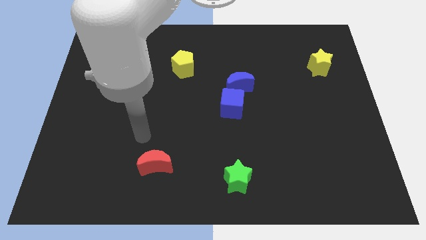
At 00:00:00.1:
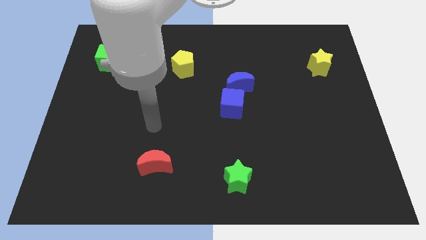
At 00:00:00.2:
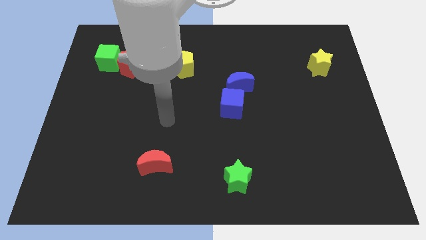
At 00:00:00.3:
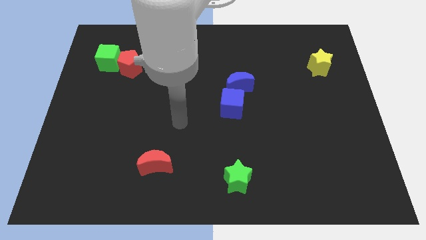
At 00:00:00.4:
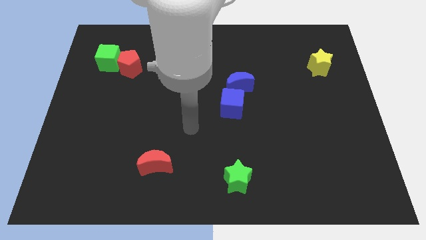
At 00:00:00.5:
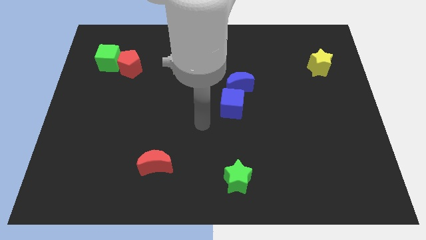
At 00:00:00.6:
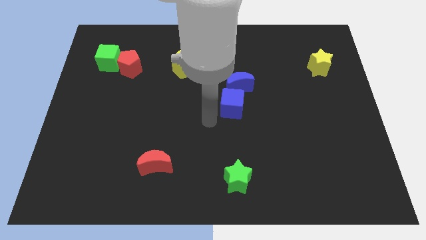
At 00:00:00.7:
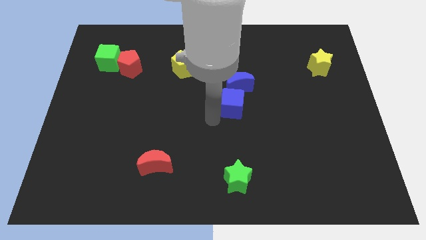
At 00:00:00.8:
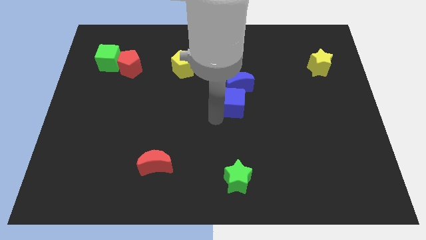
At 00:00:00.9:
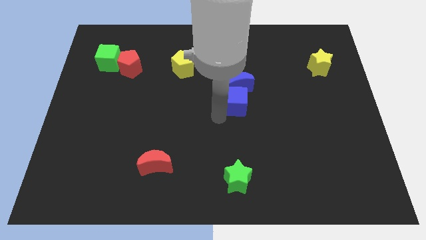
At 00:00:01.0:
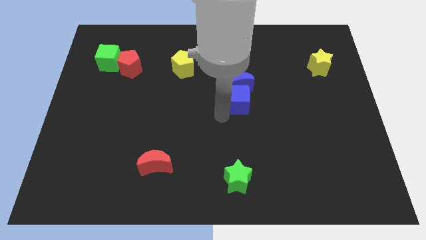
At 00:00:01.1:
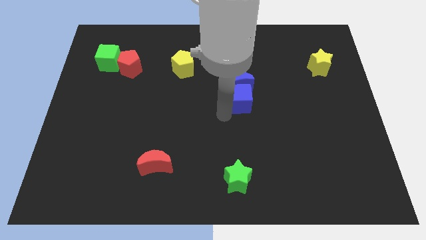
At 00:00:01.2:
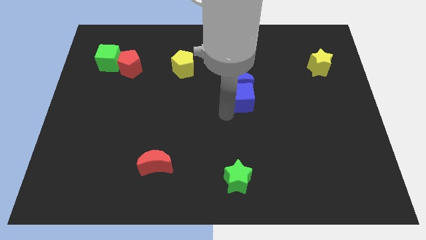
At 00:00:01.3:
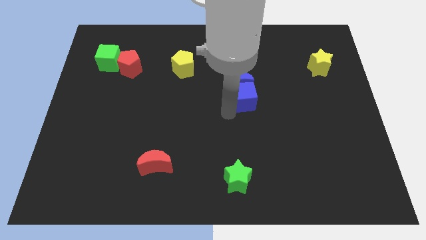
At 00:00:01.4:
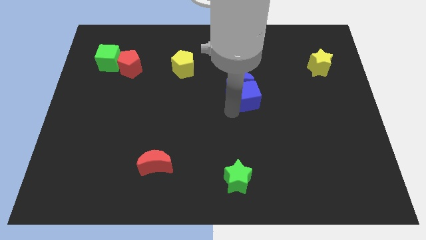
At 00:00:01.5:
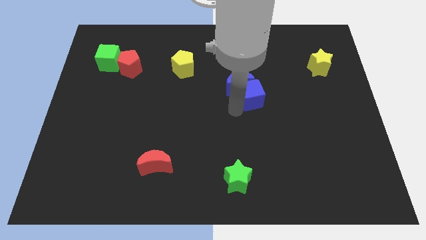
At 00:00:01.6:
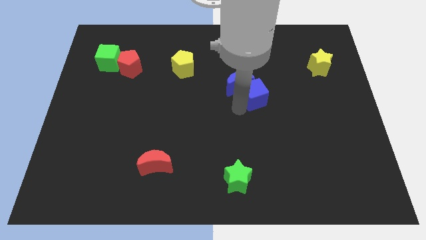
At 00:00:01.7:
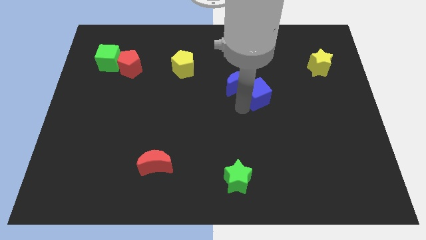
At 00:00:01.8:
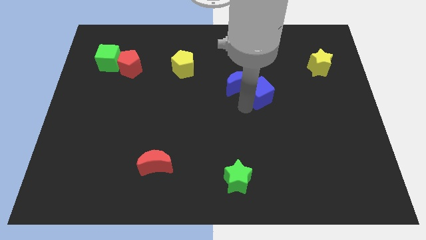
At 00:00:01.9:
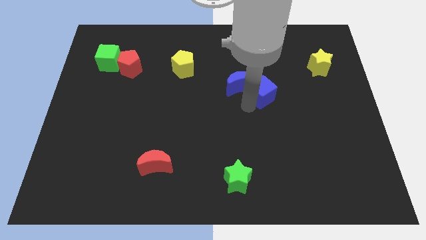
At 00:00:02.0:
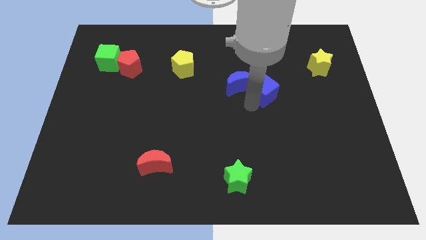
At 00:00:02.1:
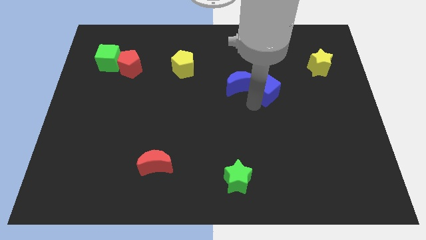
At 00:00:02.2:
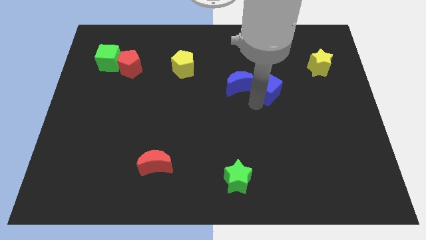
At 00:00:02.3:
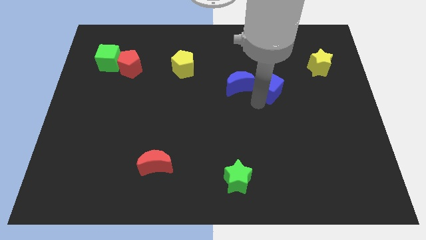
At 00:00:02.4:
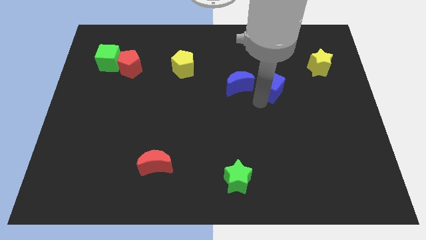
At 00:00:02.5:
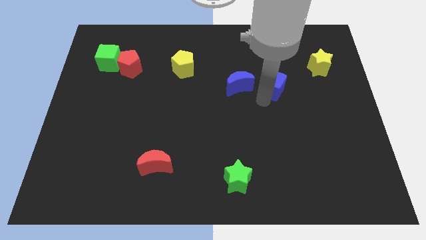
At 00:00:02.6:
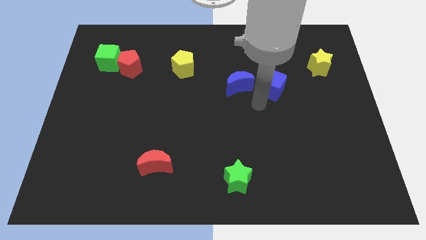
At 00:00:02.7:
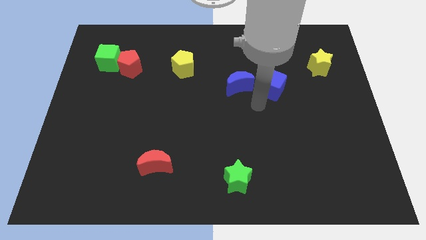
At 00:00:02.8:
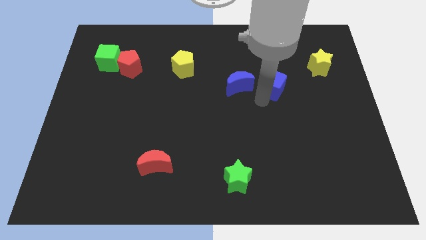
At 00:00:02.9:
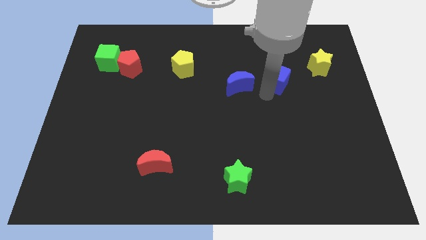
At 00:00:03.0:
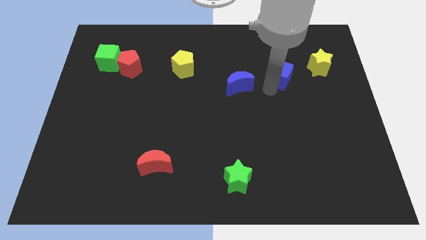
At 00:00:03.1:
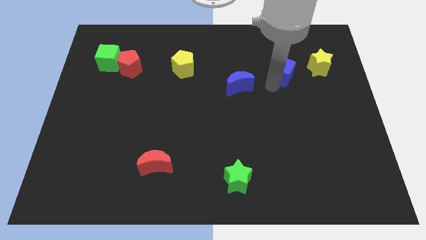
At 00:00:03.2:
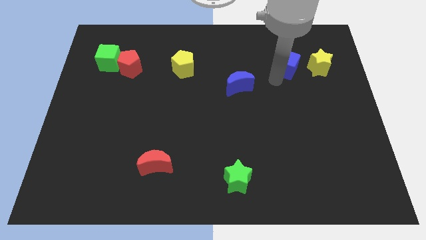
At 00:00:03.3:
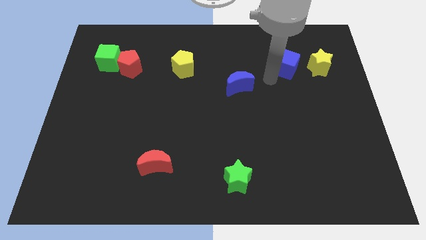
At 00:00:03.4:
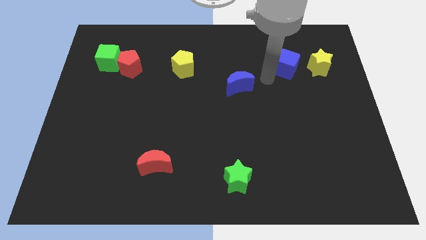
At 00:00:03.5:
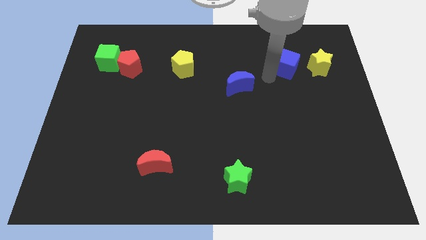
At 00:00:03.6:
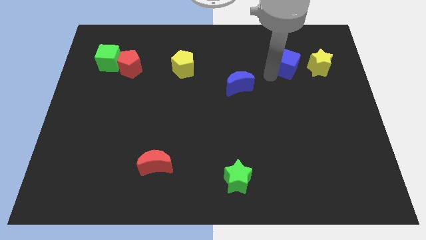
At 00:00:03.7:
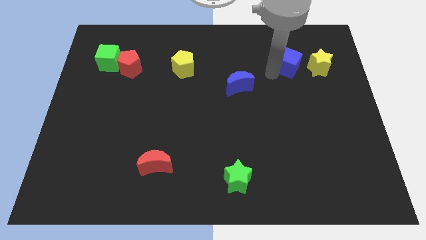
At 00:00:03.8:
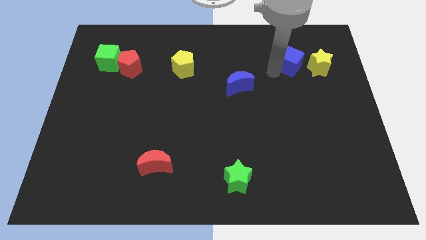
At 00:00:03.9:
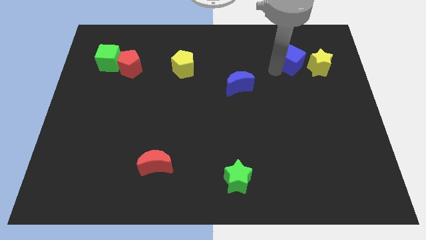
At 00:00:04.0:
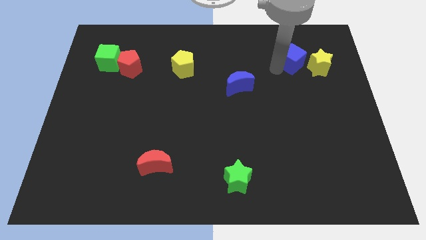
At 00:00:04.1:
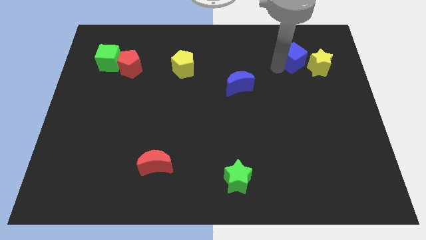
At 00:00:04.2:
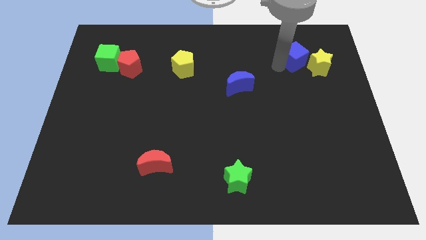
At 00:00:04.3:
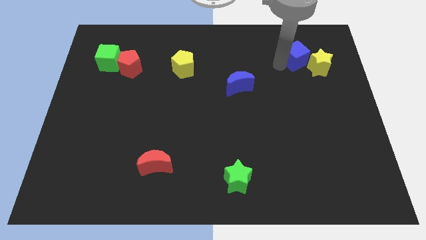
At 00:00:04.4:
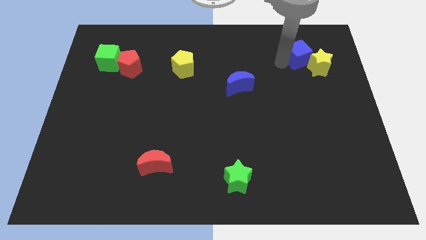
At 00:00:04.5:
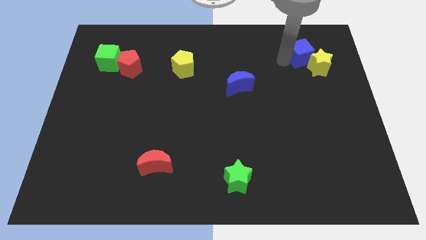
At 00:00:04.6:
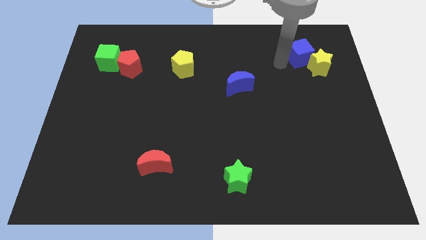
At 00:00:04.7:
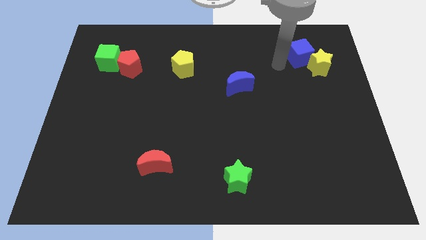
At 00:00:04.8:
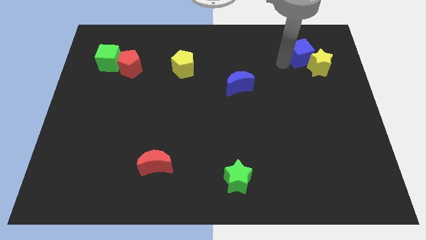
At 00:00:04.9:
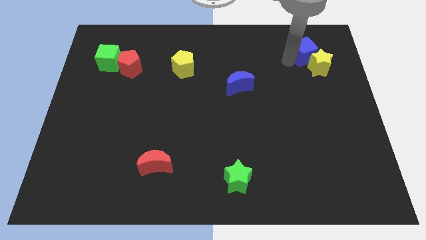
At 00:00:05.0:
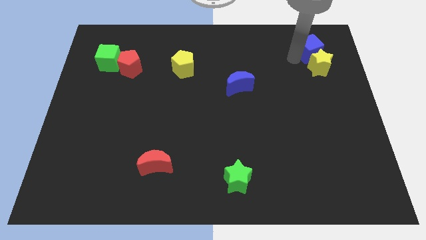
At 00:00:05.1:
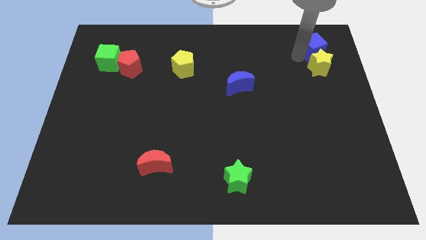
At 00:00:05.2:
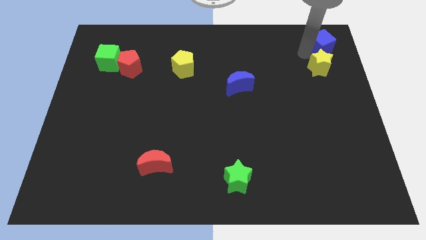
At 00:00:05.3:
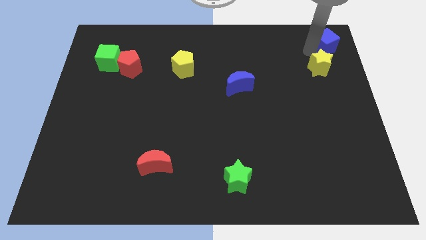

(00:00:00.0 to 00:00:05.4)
put the blue cube to the upper right corner
